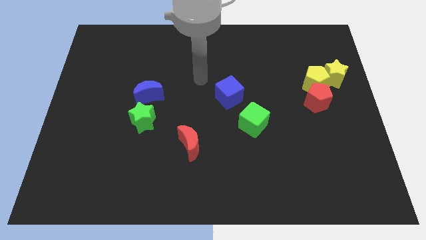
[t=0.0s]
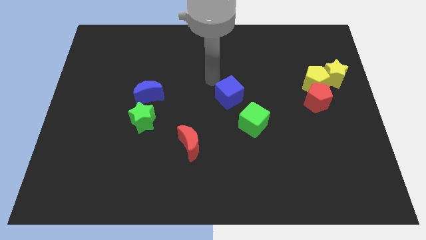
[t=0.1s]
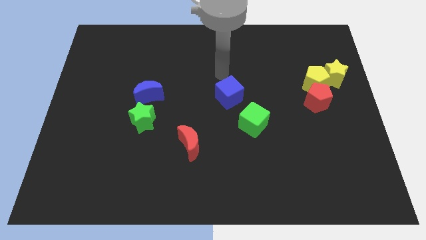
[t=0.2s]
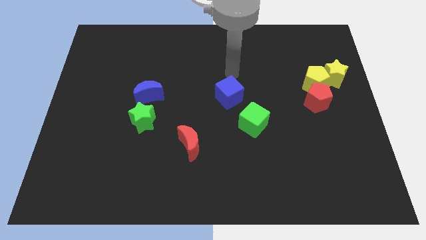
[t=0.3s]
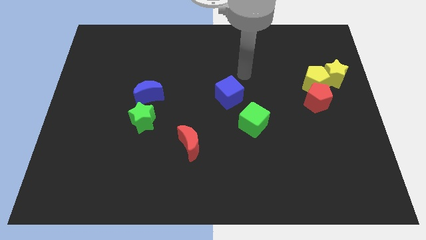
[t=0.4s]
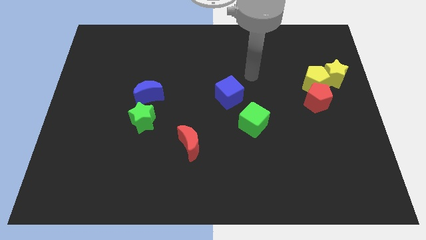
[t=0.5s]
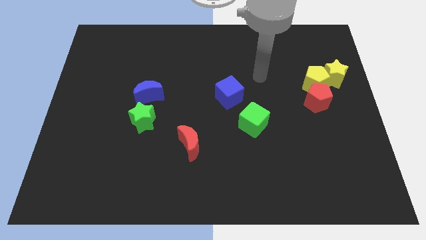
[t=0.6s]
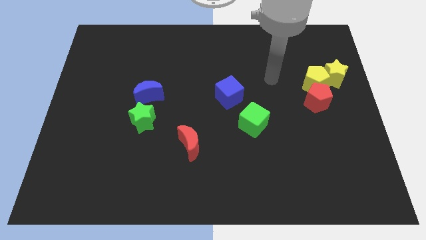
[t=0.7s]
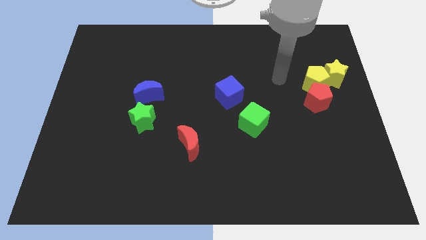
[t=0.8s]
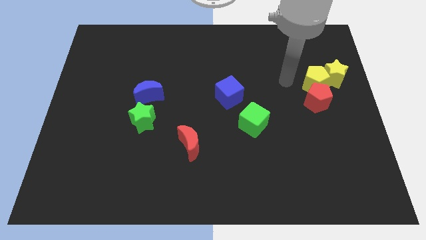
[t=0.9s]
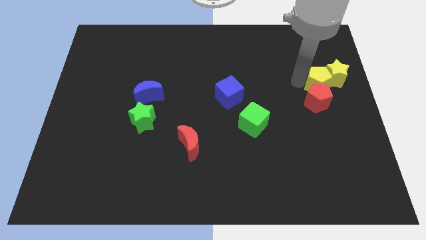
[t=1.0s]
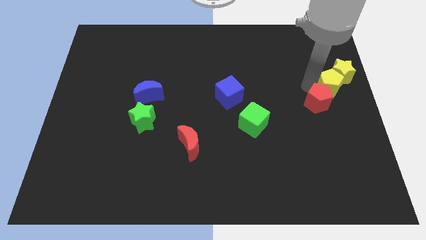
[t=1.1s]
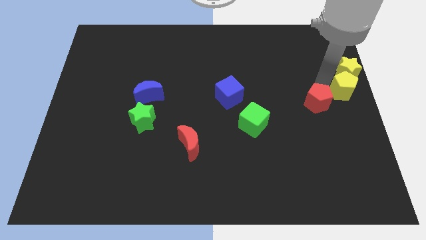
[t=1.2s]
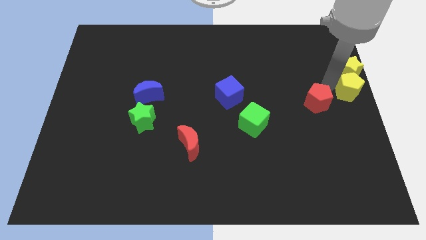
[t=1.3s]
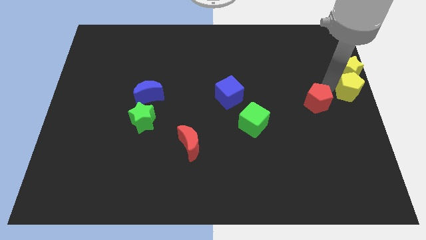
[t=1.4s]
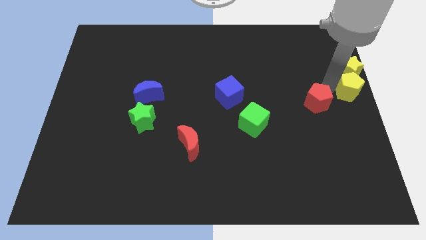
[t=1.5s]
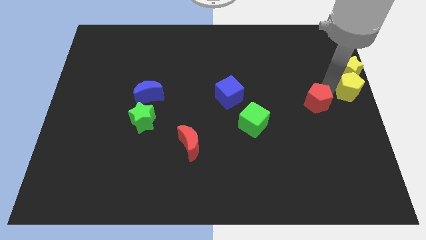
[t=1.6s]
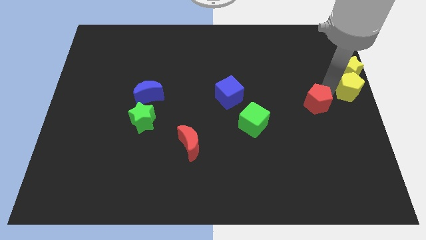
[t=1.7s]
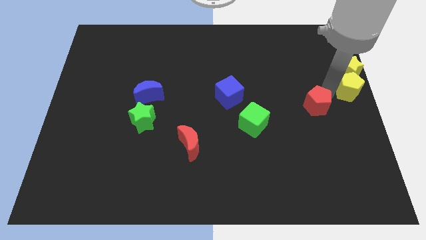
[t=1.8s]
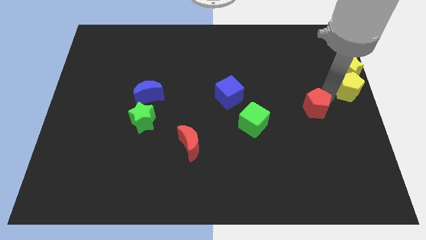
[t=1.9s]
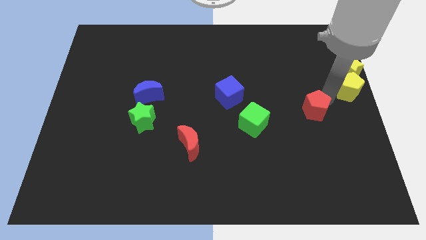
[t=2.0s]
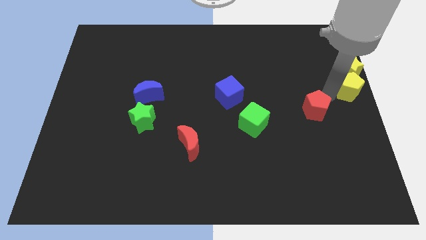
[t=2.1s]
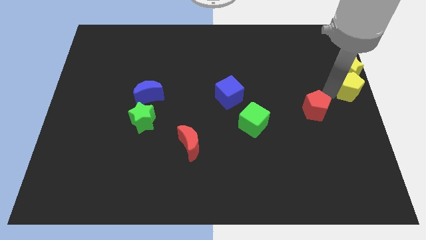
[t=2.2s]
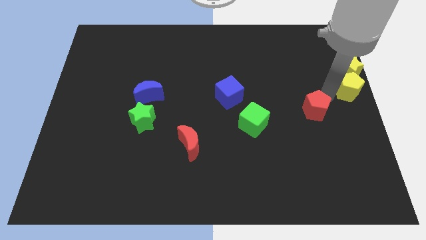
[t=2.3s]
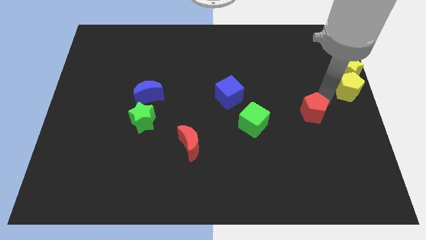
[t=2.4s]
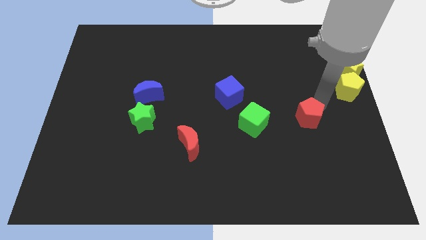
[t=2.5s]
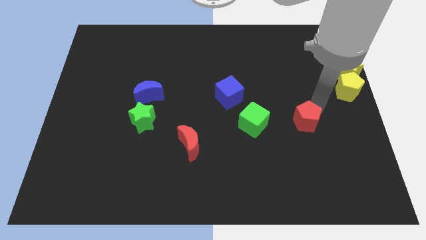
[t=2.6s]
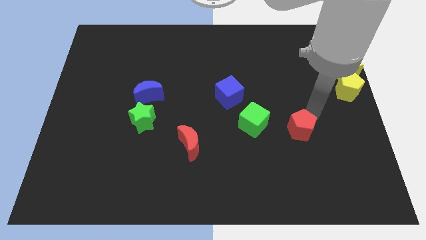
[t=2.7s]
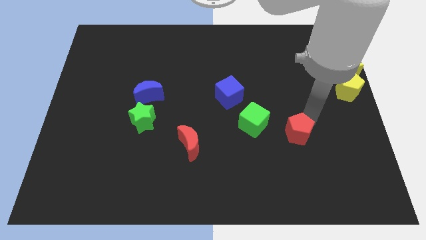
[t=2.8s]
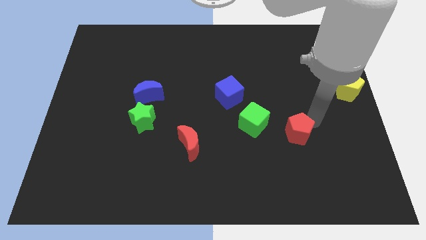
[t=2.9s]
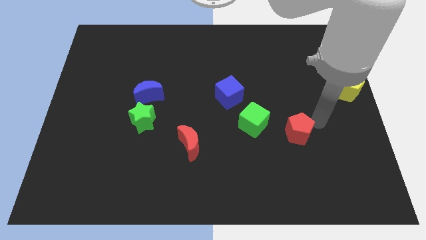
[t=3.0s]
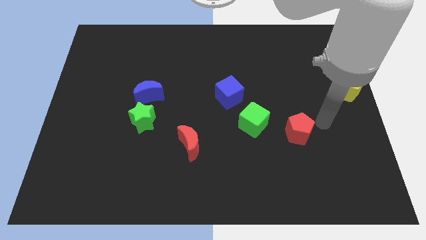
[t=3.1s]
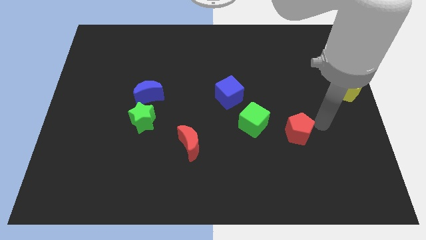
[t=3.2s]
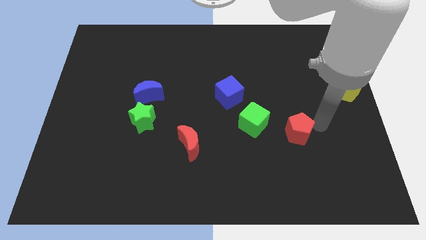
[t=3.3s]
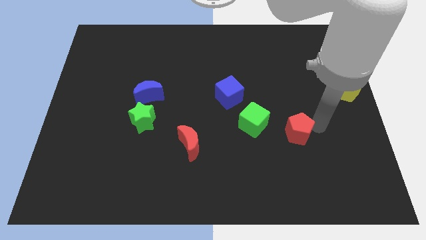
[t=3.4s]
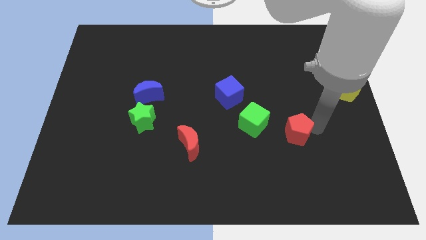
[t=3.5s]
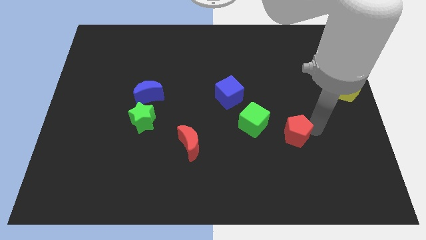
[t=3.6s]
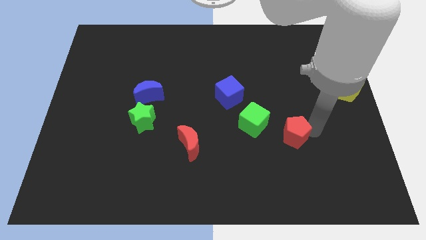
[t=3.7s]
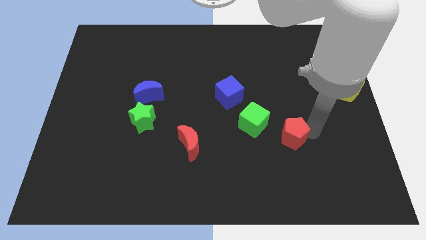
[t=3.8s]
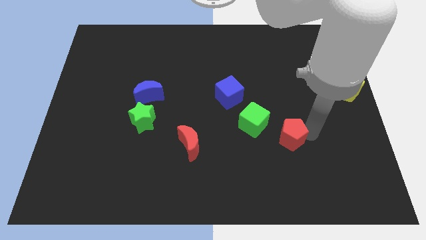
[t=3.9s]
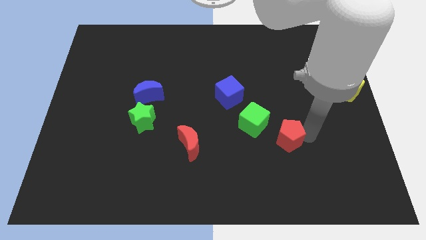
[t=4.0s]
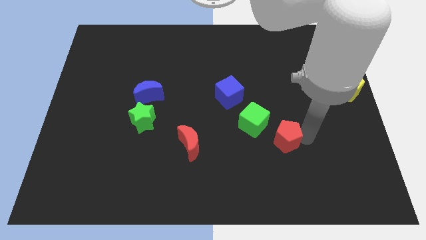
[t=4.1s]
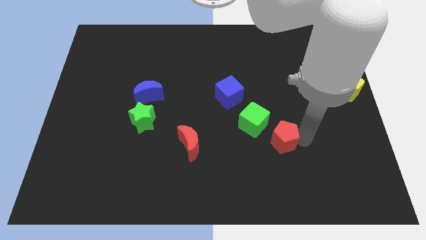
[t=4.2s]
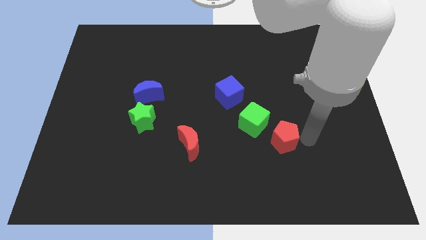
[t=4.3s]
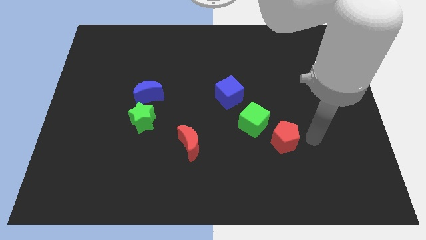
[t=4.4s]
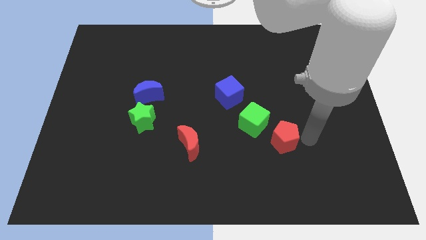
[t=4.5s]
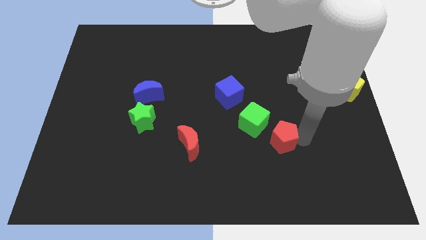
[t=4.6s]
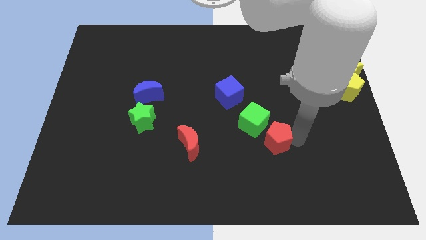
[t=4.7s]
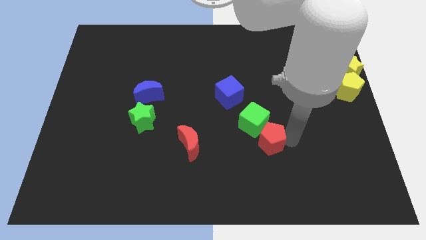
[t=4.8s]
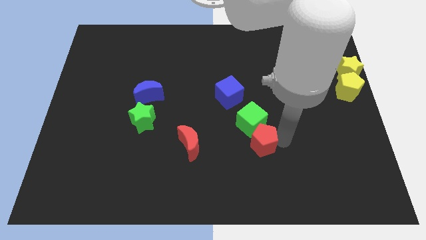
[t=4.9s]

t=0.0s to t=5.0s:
put the red pentagon to the right of the red moon

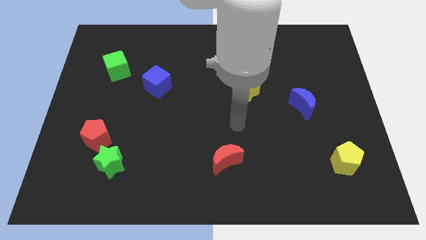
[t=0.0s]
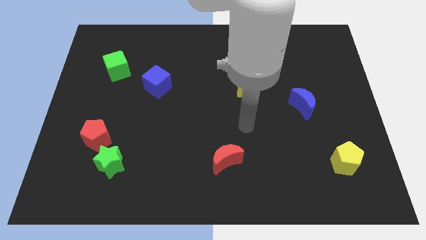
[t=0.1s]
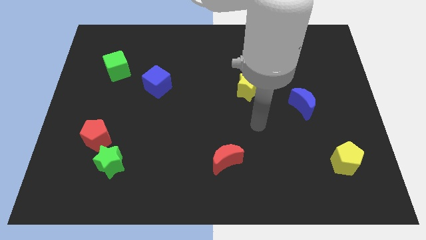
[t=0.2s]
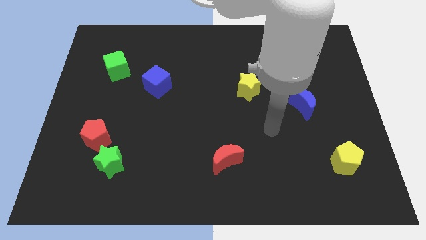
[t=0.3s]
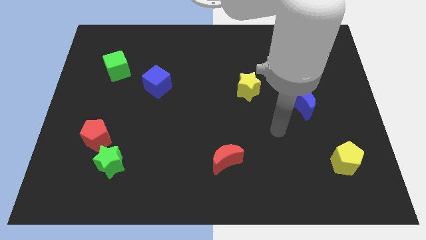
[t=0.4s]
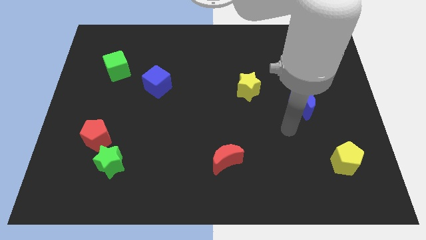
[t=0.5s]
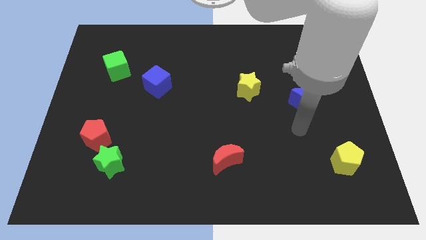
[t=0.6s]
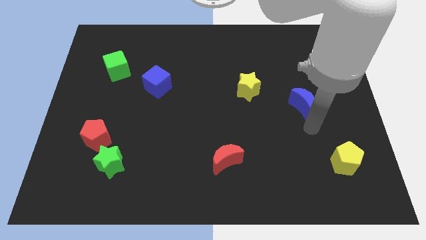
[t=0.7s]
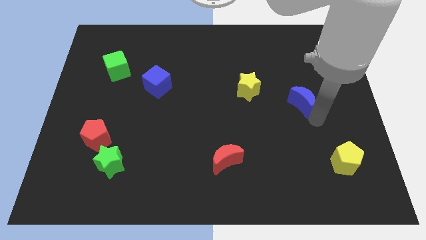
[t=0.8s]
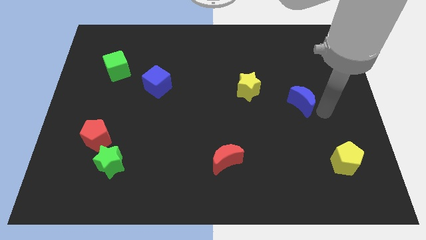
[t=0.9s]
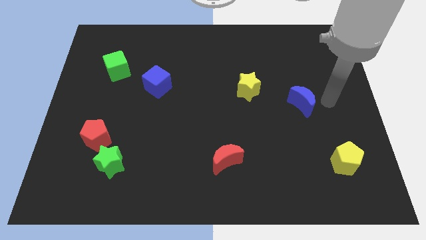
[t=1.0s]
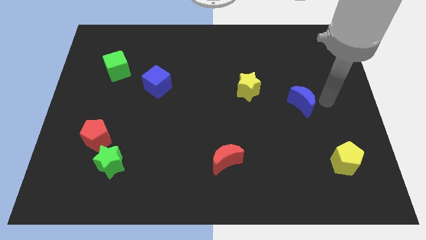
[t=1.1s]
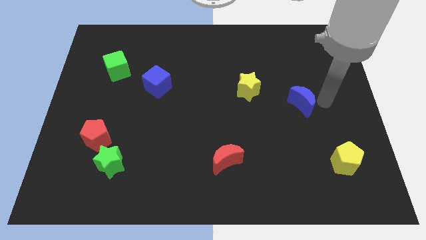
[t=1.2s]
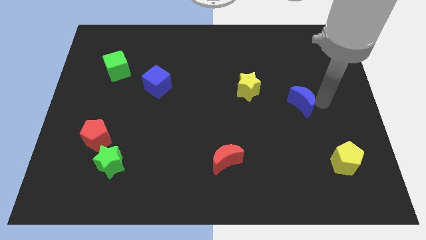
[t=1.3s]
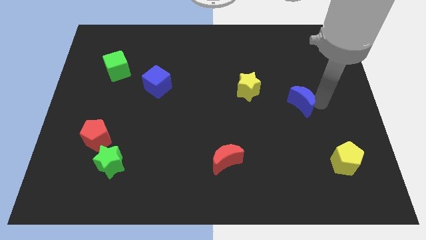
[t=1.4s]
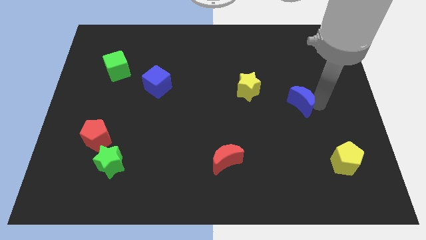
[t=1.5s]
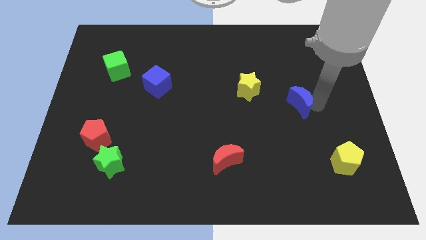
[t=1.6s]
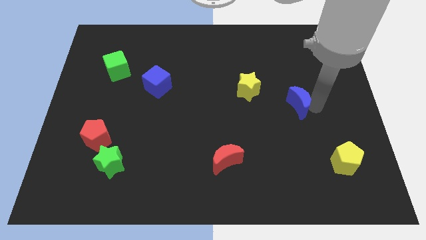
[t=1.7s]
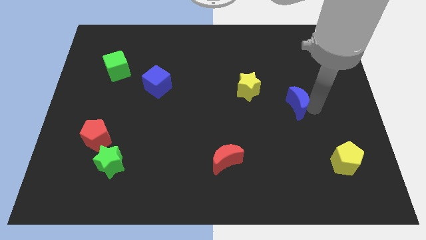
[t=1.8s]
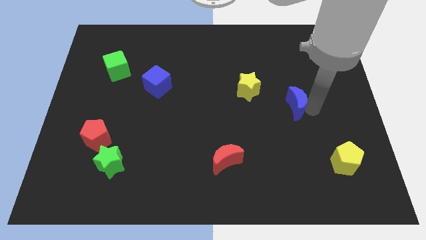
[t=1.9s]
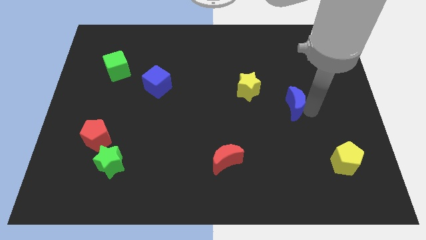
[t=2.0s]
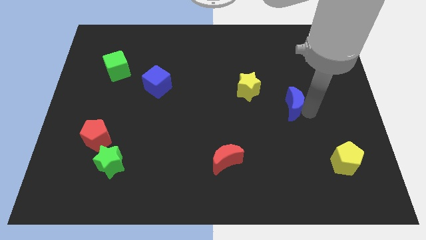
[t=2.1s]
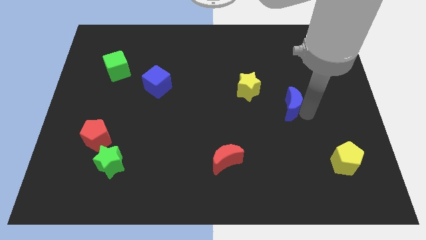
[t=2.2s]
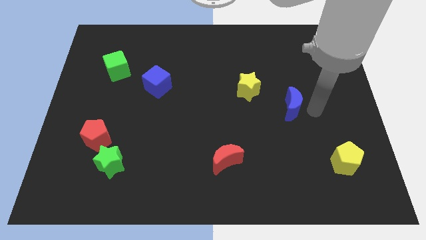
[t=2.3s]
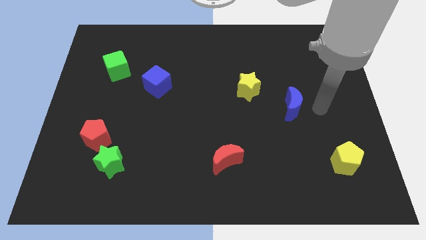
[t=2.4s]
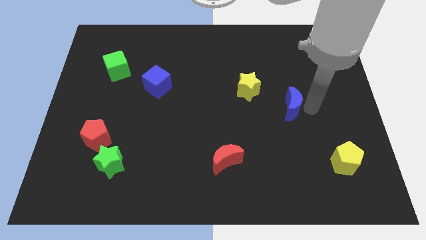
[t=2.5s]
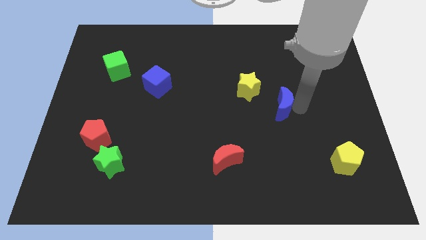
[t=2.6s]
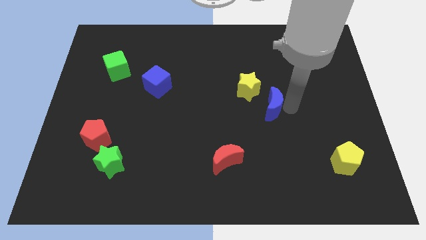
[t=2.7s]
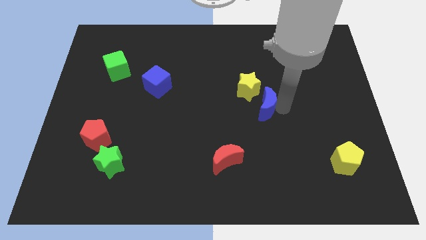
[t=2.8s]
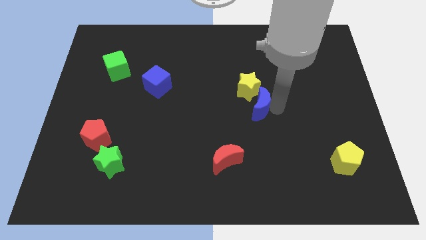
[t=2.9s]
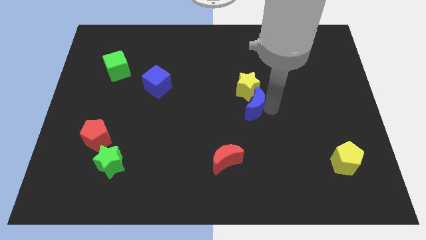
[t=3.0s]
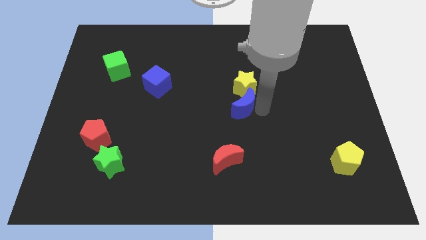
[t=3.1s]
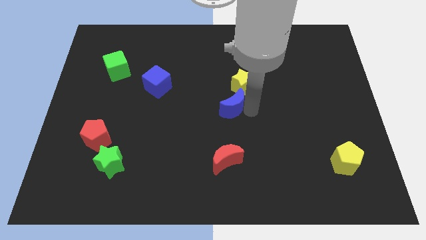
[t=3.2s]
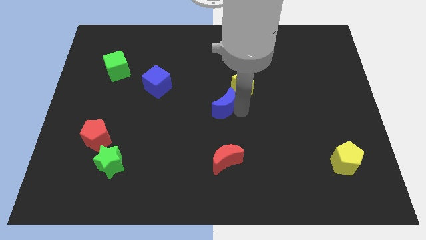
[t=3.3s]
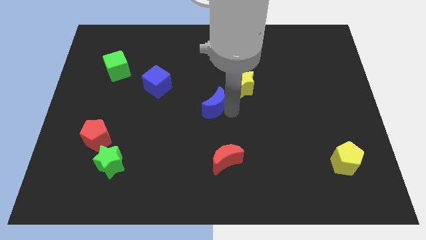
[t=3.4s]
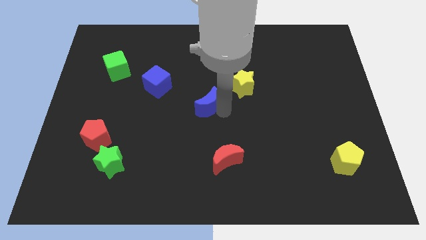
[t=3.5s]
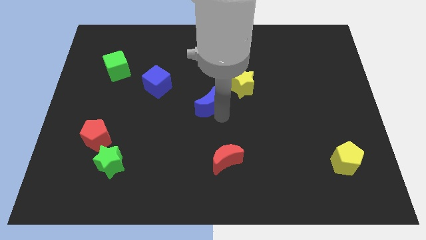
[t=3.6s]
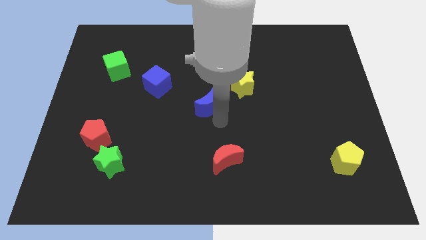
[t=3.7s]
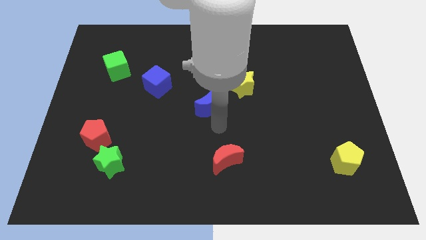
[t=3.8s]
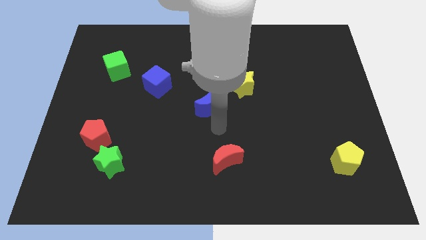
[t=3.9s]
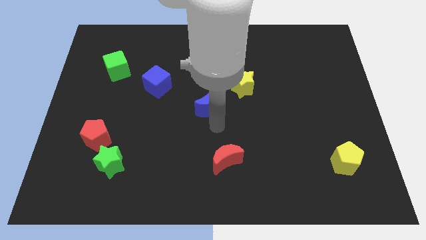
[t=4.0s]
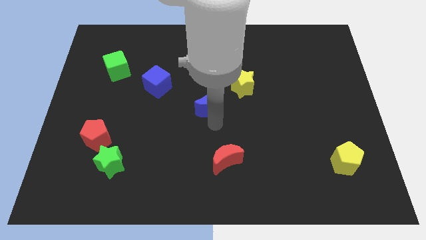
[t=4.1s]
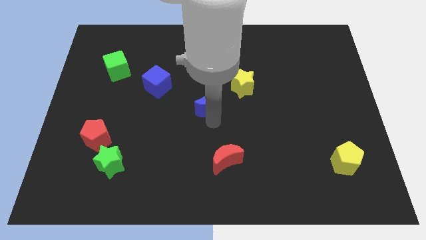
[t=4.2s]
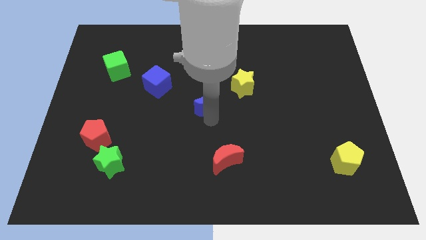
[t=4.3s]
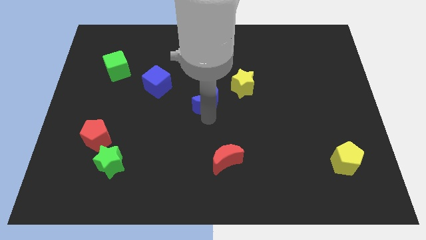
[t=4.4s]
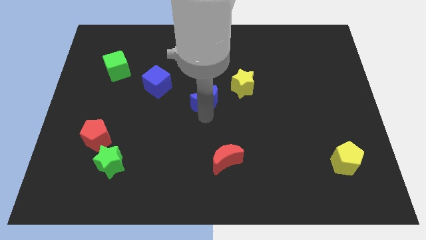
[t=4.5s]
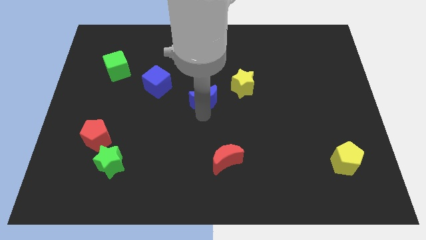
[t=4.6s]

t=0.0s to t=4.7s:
push the blue moon to the left side of the yellow star
